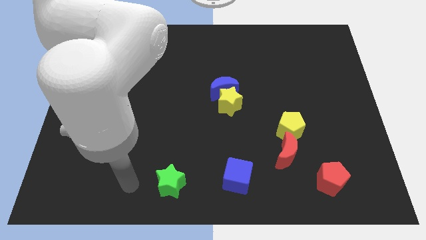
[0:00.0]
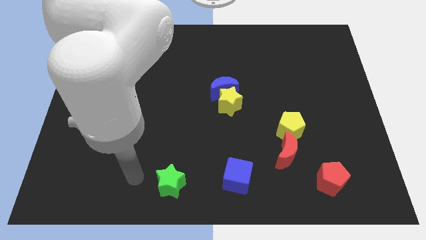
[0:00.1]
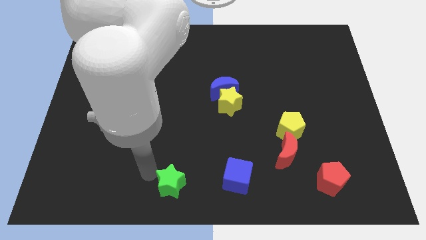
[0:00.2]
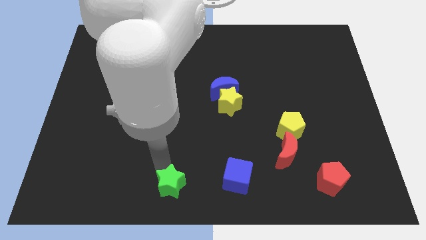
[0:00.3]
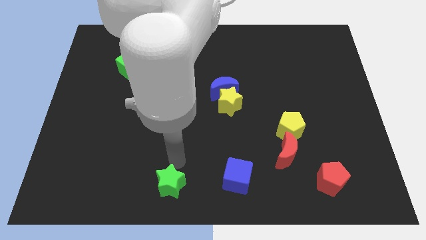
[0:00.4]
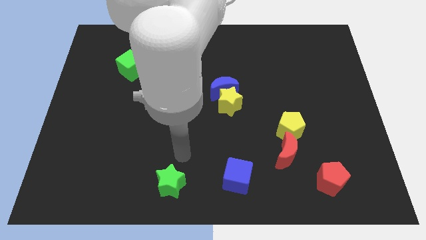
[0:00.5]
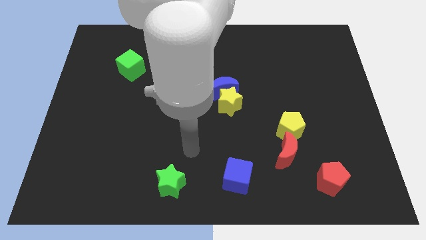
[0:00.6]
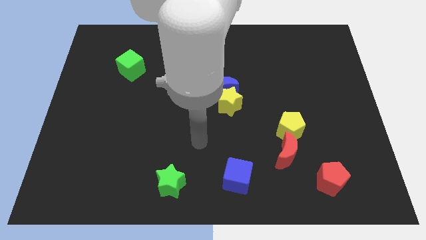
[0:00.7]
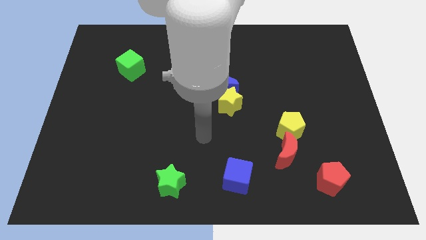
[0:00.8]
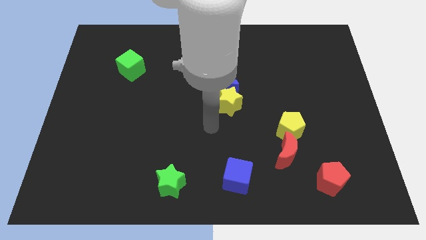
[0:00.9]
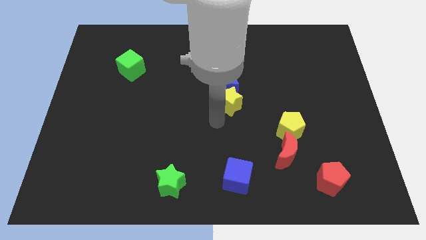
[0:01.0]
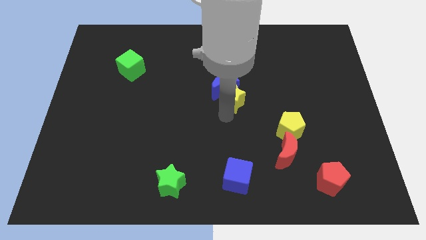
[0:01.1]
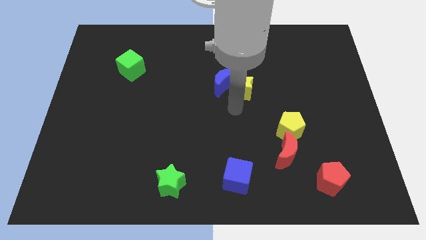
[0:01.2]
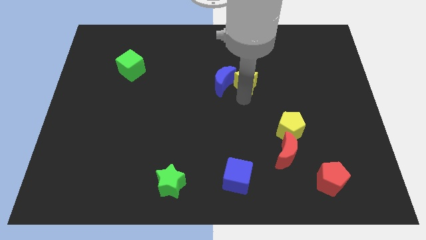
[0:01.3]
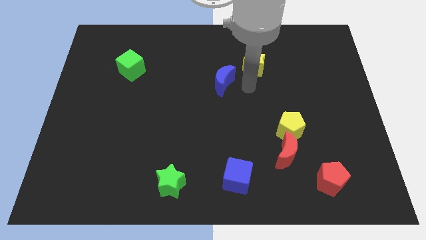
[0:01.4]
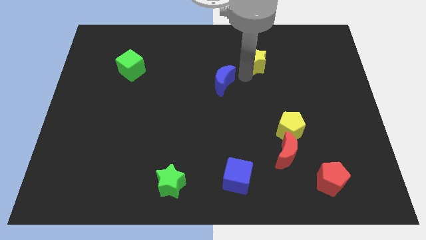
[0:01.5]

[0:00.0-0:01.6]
separate the blue moon from the yellow star

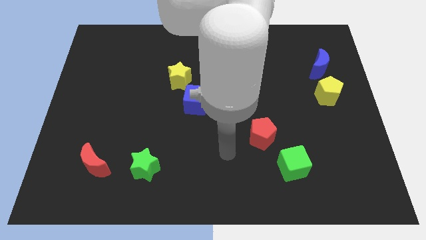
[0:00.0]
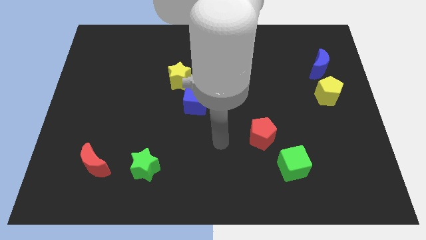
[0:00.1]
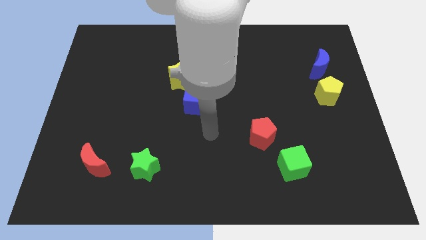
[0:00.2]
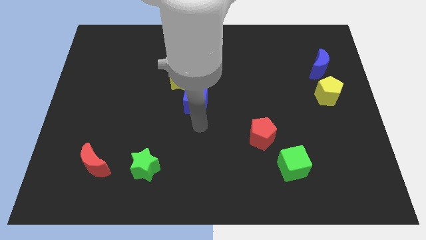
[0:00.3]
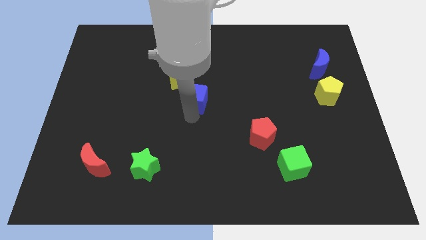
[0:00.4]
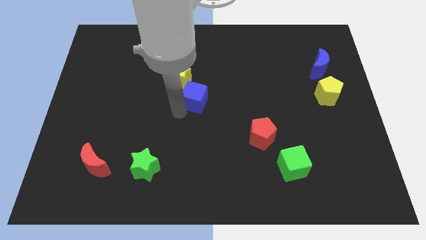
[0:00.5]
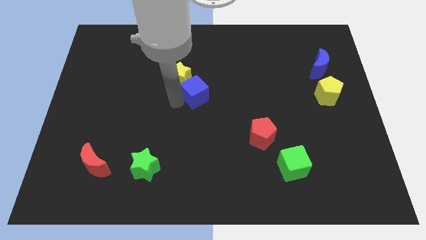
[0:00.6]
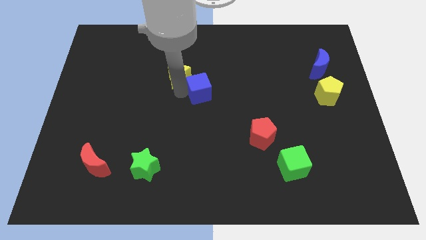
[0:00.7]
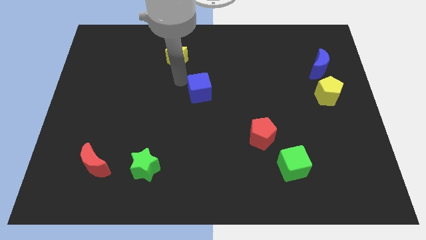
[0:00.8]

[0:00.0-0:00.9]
move the blue cube away from the yellow star

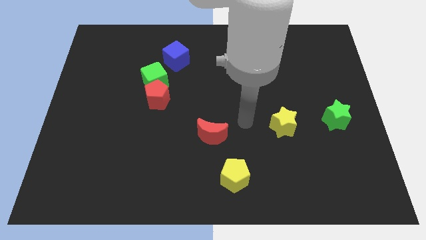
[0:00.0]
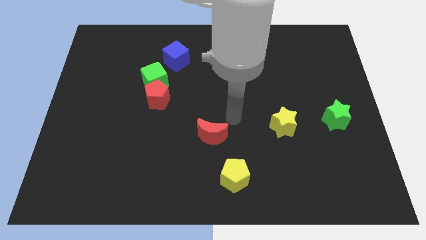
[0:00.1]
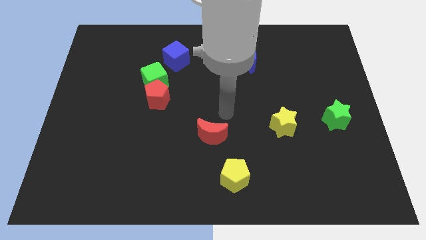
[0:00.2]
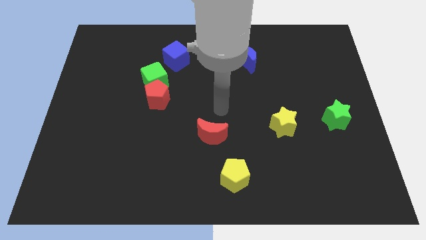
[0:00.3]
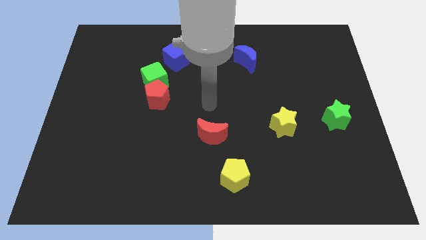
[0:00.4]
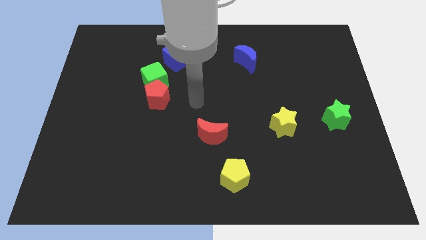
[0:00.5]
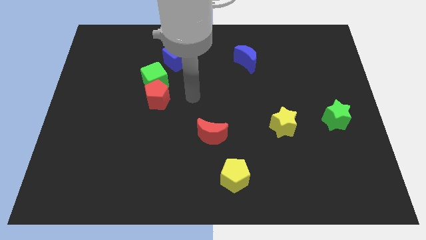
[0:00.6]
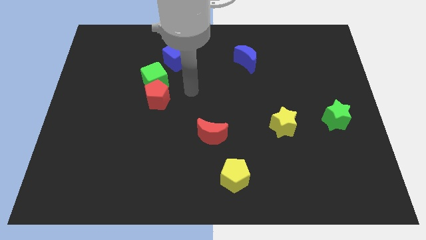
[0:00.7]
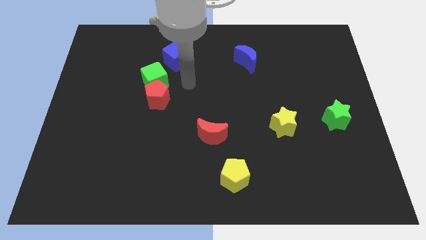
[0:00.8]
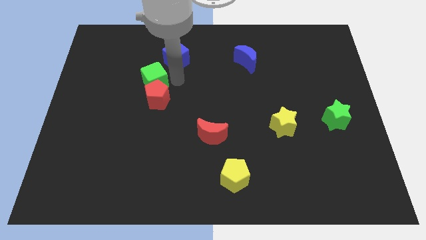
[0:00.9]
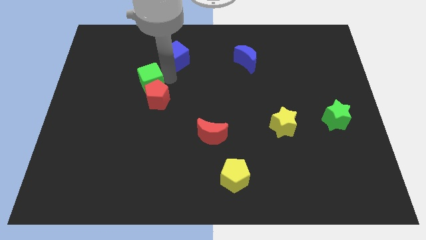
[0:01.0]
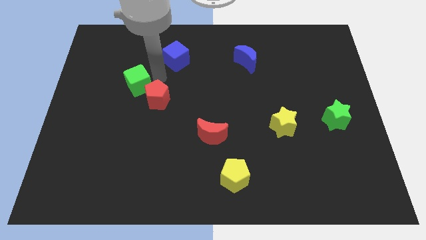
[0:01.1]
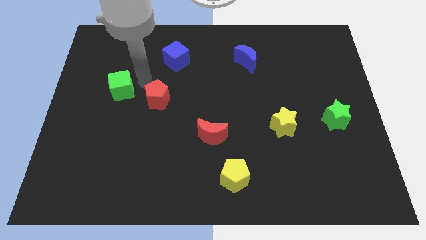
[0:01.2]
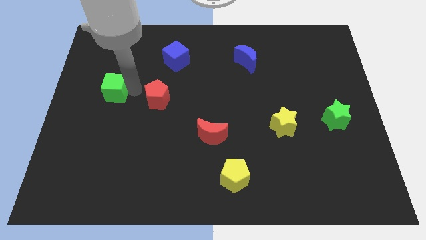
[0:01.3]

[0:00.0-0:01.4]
separate the red pentagon from the green cube

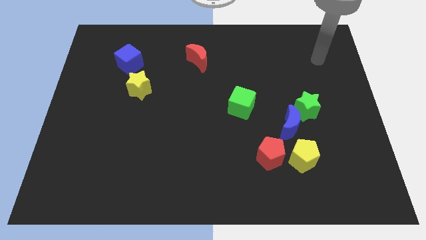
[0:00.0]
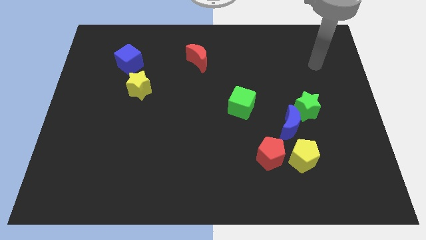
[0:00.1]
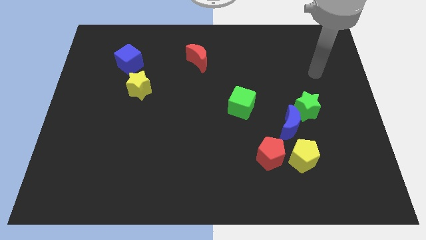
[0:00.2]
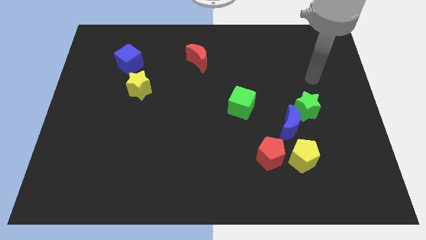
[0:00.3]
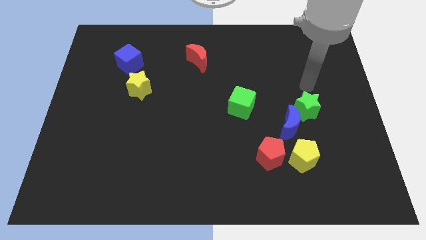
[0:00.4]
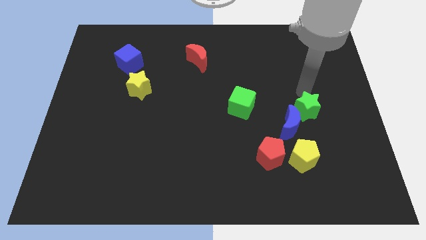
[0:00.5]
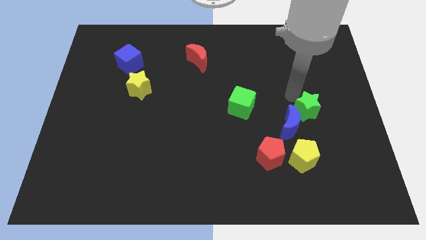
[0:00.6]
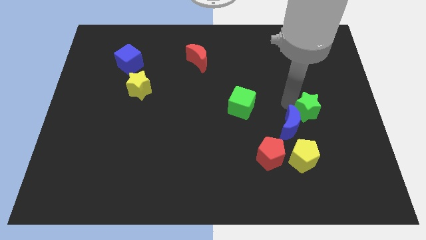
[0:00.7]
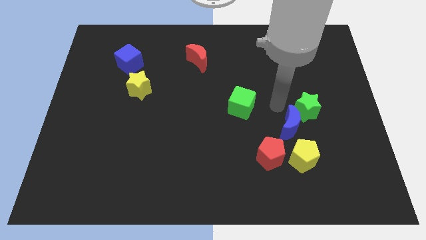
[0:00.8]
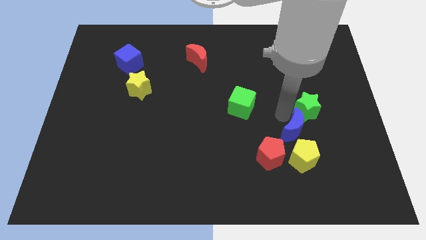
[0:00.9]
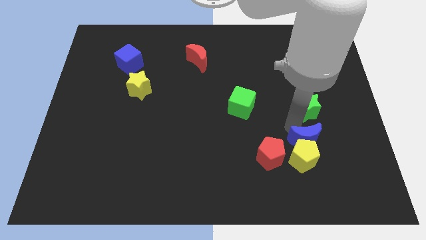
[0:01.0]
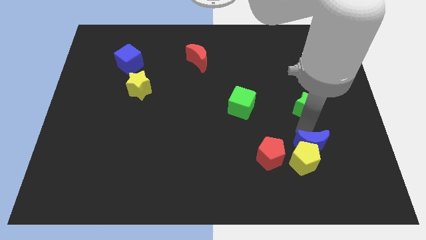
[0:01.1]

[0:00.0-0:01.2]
move the green star away from the blue moon

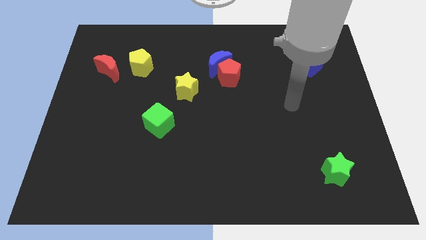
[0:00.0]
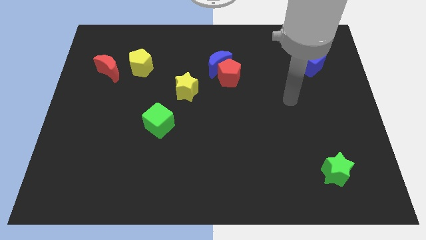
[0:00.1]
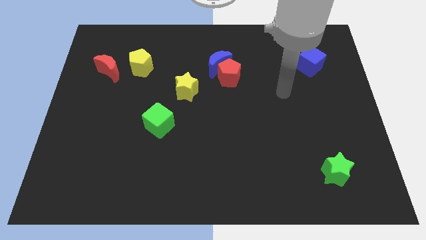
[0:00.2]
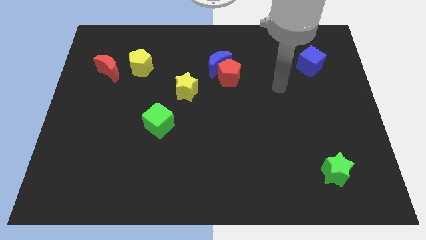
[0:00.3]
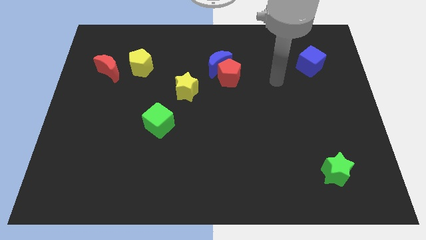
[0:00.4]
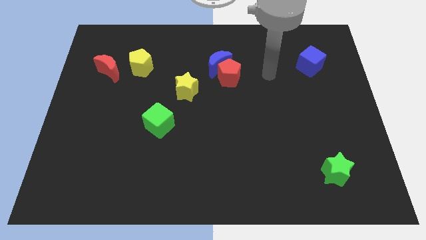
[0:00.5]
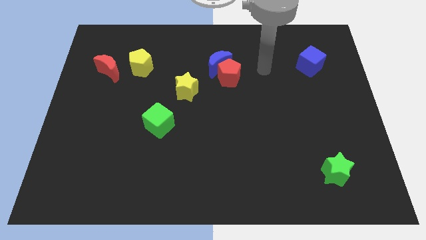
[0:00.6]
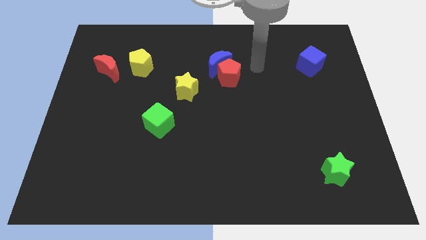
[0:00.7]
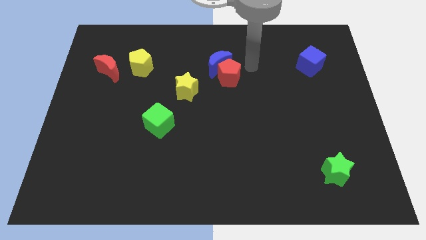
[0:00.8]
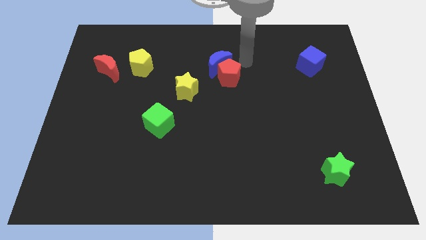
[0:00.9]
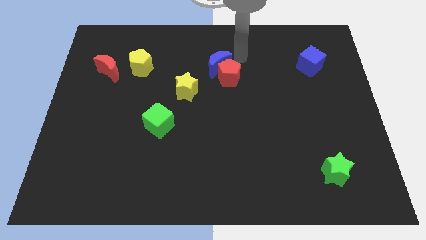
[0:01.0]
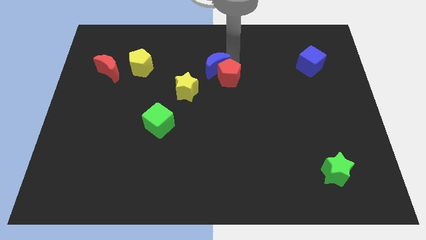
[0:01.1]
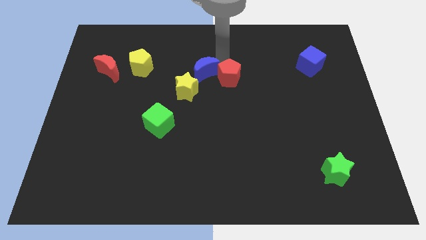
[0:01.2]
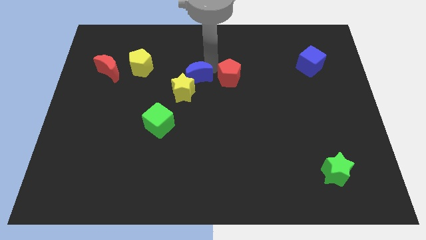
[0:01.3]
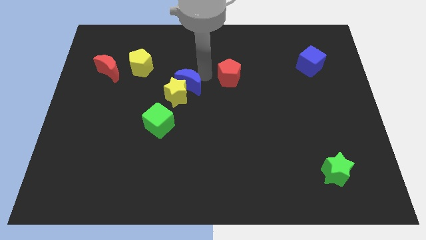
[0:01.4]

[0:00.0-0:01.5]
pull the red pentagon apart from the blue moon

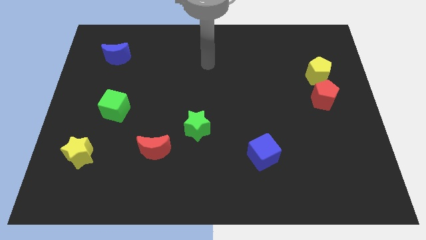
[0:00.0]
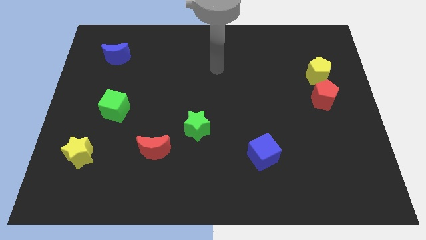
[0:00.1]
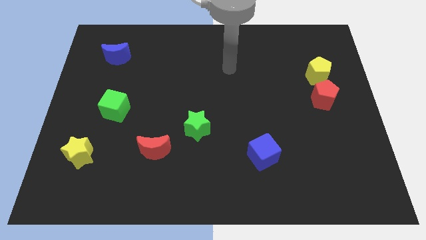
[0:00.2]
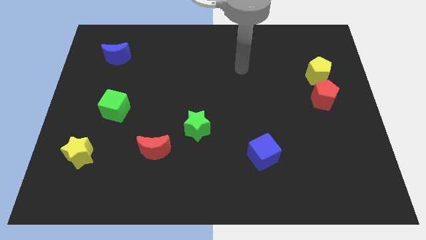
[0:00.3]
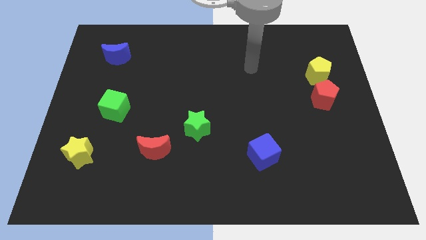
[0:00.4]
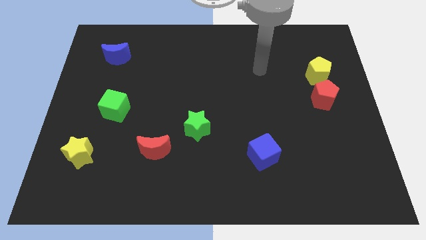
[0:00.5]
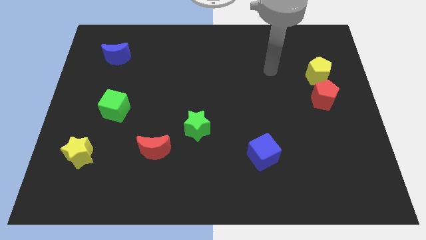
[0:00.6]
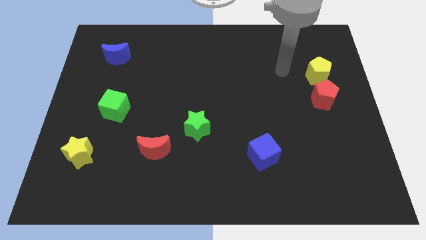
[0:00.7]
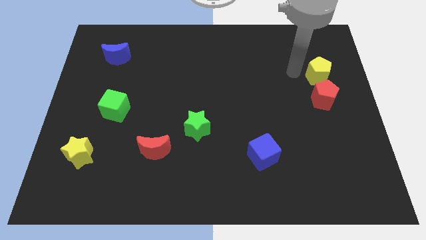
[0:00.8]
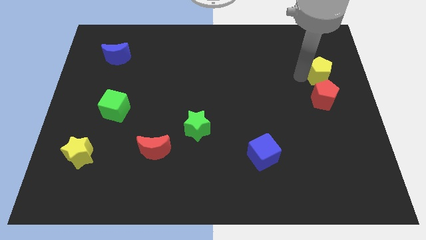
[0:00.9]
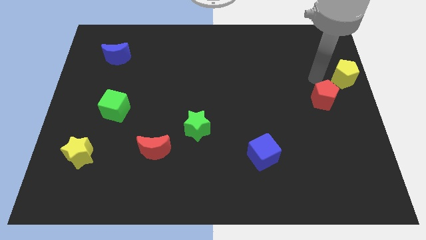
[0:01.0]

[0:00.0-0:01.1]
pull the red pentagon apart from the yellow pentagon

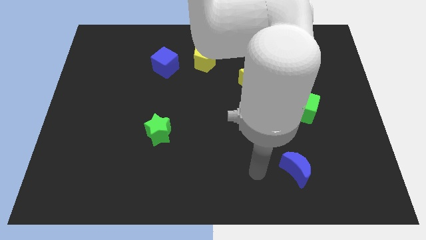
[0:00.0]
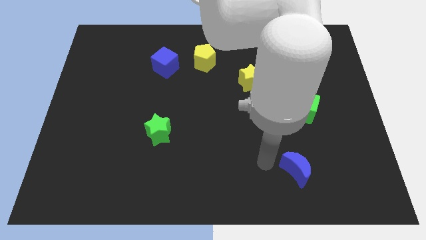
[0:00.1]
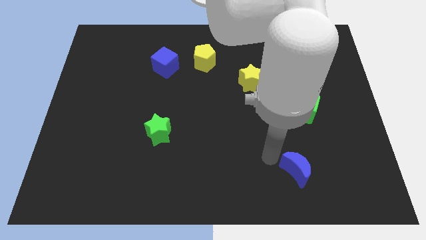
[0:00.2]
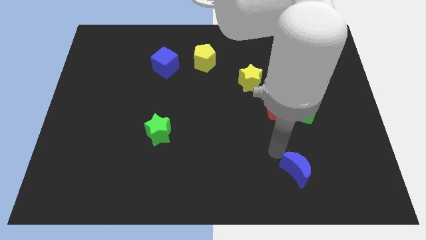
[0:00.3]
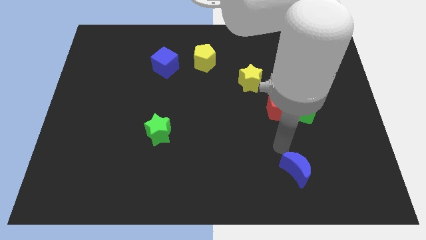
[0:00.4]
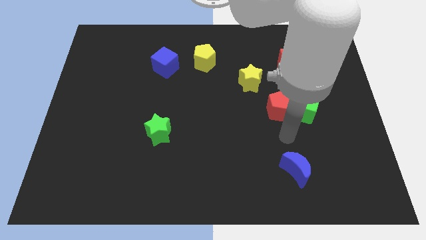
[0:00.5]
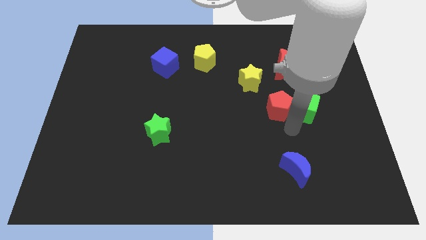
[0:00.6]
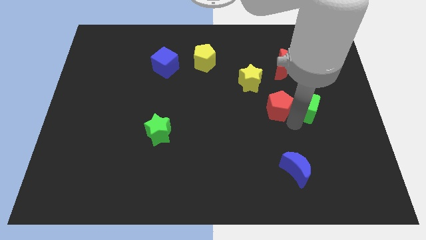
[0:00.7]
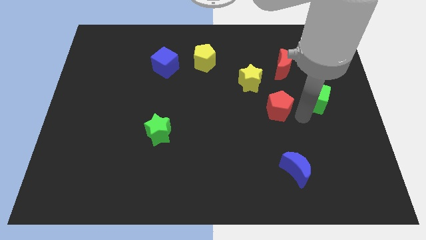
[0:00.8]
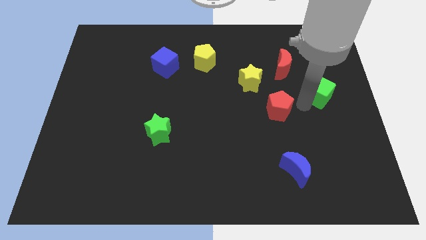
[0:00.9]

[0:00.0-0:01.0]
pull the red pentagon apart from the green cube

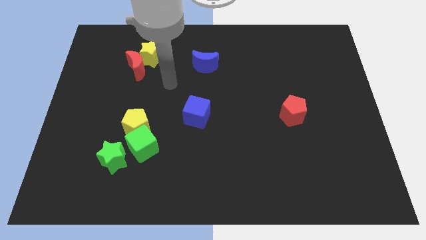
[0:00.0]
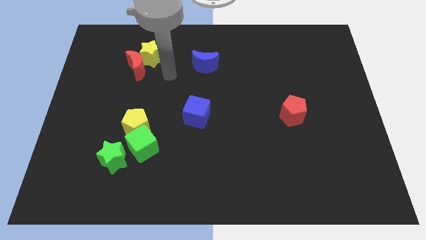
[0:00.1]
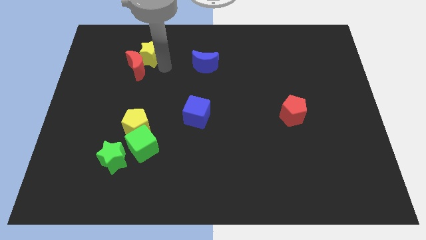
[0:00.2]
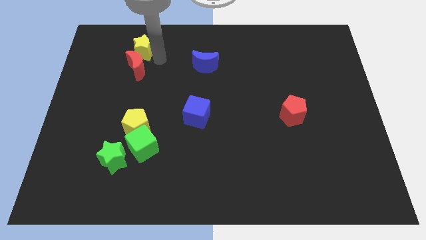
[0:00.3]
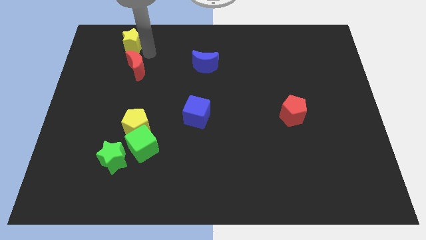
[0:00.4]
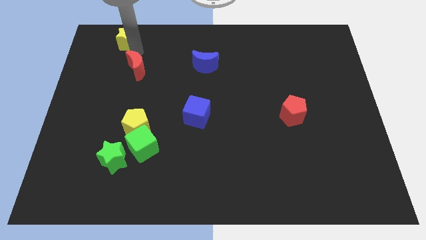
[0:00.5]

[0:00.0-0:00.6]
pull the red moon apart from the yellow star
